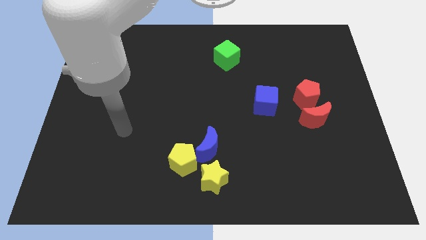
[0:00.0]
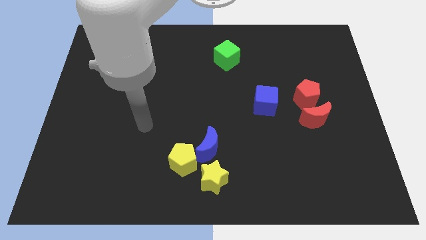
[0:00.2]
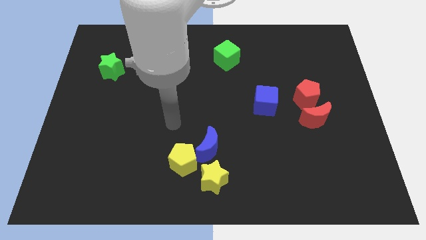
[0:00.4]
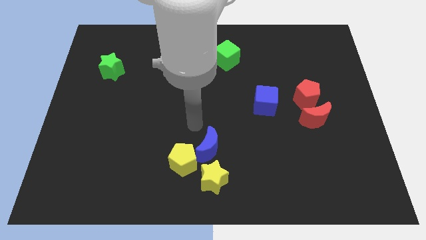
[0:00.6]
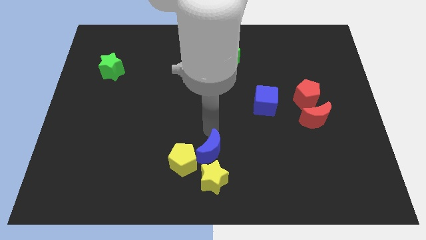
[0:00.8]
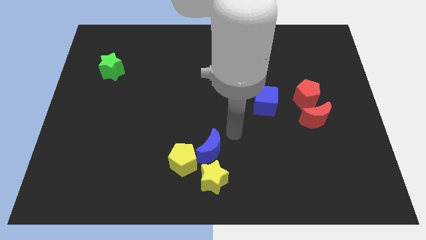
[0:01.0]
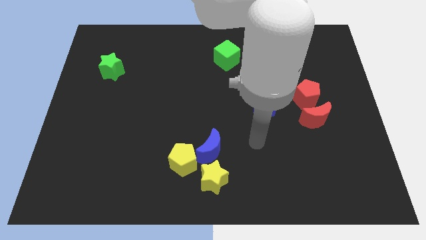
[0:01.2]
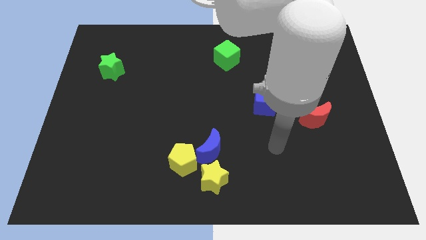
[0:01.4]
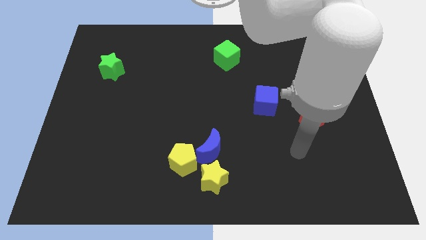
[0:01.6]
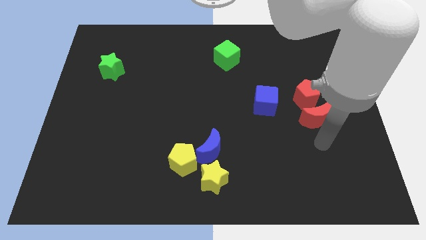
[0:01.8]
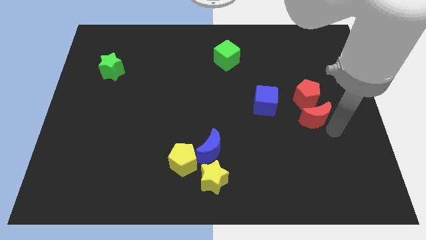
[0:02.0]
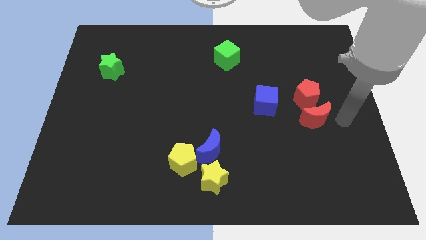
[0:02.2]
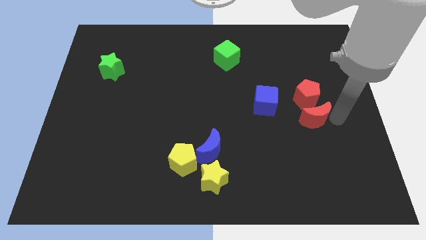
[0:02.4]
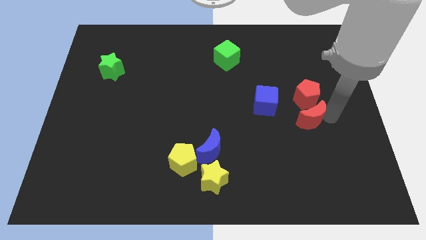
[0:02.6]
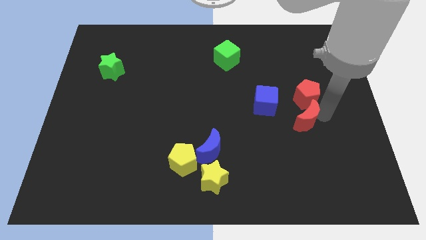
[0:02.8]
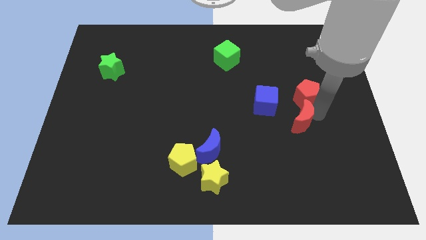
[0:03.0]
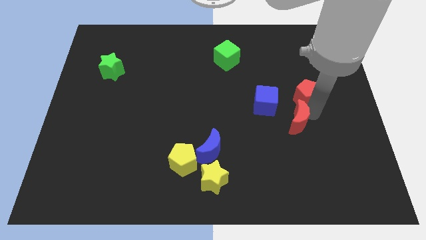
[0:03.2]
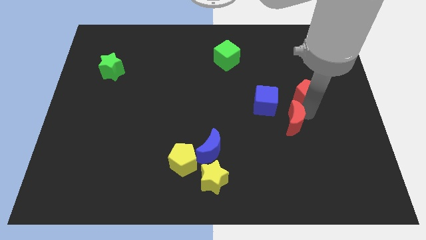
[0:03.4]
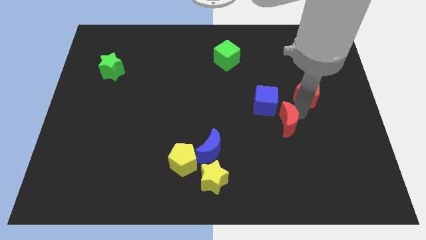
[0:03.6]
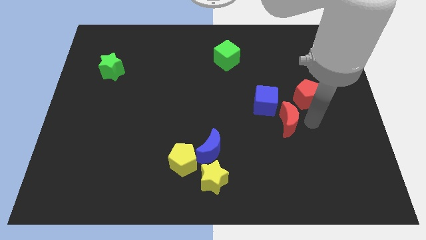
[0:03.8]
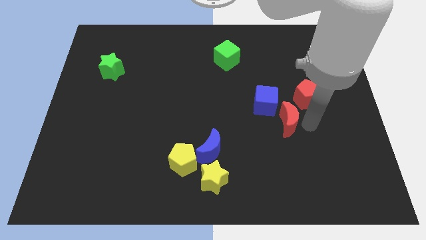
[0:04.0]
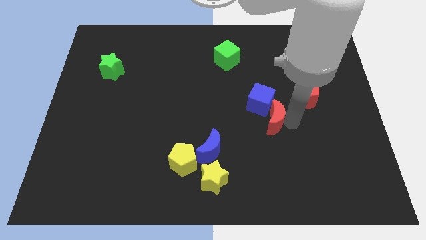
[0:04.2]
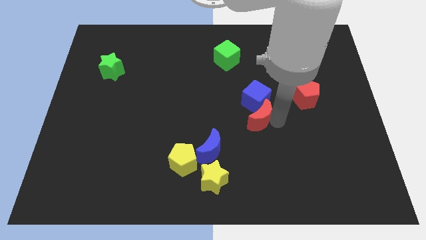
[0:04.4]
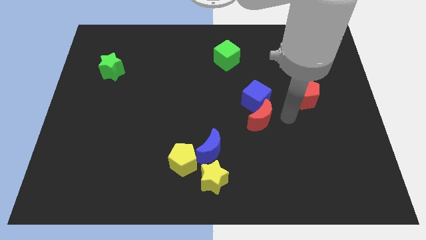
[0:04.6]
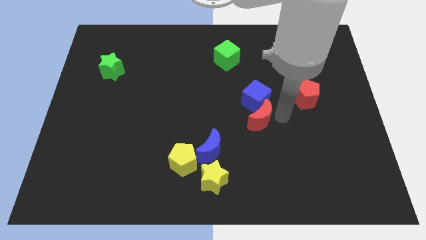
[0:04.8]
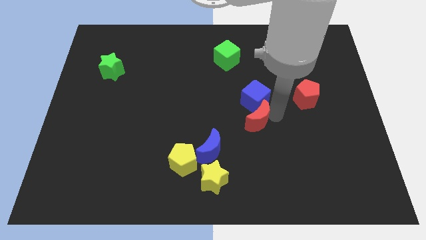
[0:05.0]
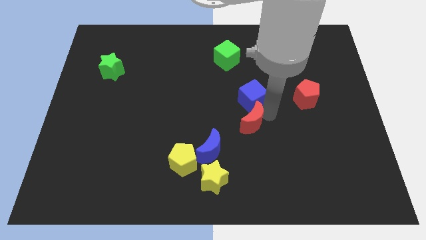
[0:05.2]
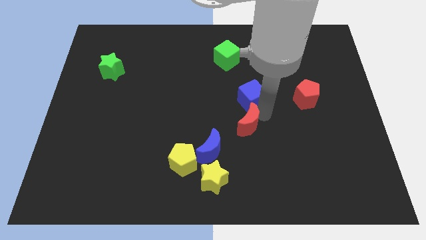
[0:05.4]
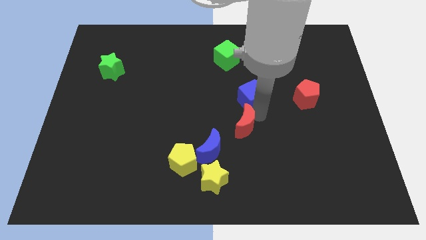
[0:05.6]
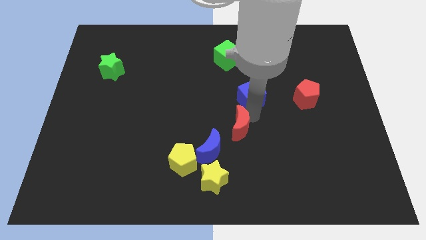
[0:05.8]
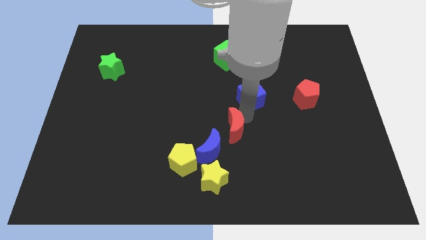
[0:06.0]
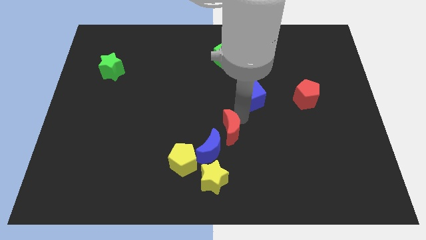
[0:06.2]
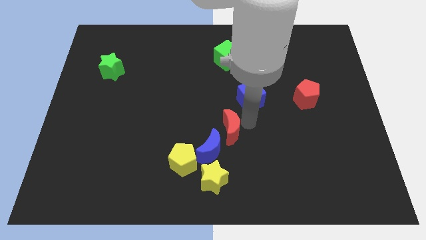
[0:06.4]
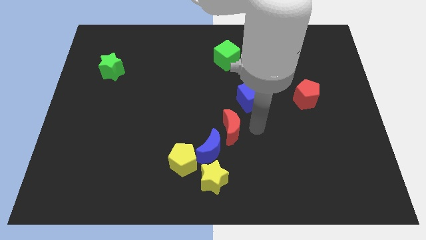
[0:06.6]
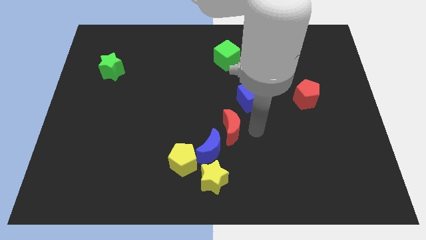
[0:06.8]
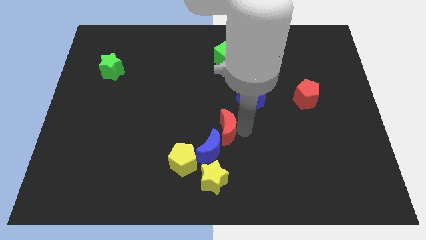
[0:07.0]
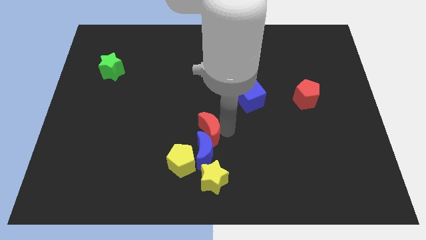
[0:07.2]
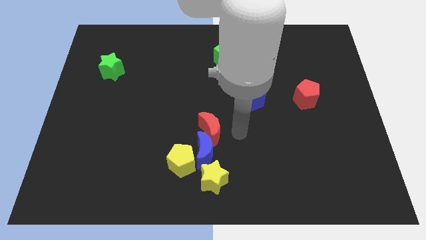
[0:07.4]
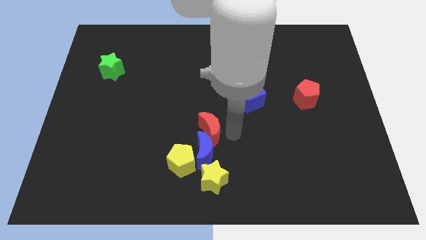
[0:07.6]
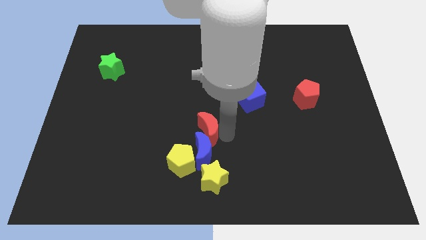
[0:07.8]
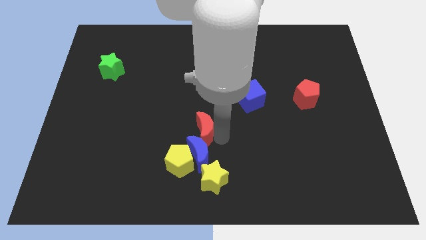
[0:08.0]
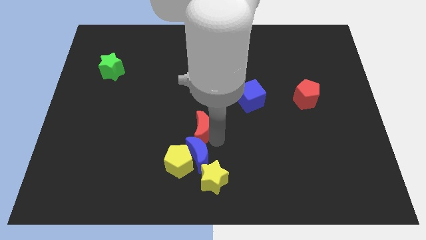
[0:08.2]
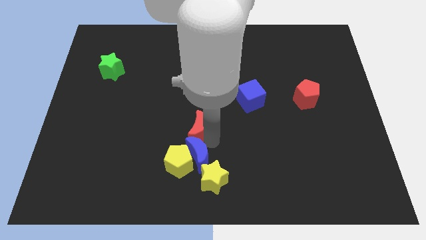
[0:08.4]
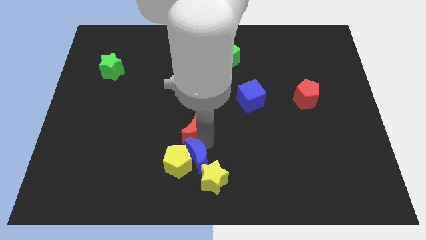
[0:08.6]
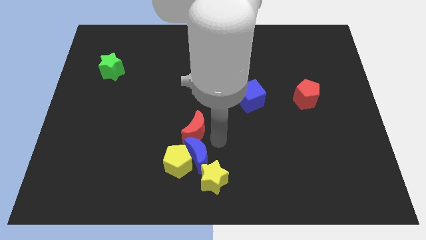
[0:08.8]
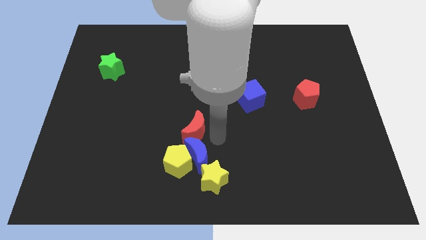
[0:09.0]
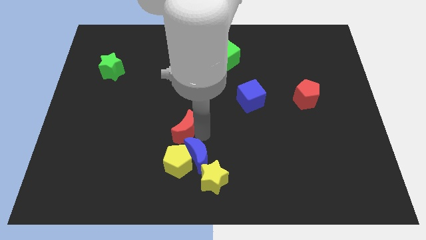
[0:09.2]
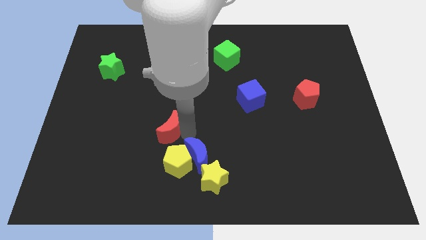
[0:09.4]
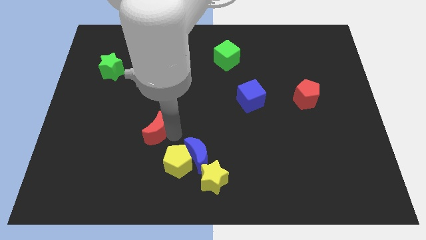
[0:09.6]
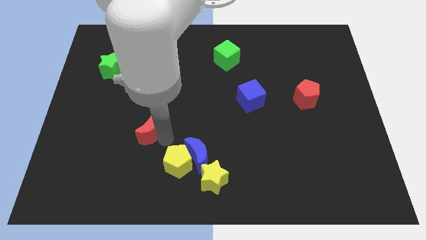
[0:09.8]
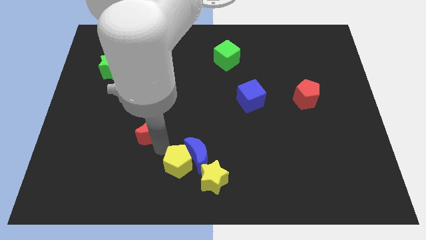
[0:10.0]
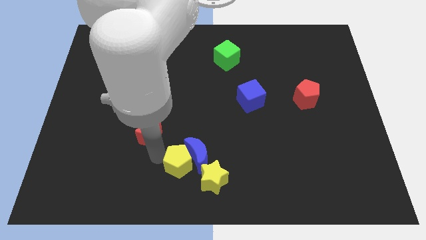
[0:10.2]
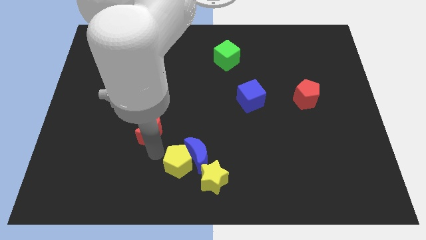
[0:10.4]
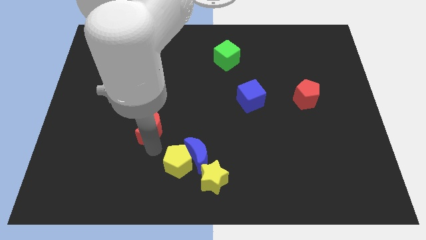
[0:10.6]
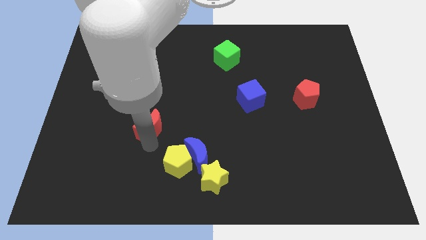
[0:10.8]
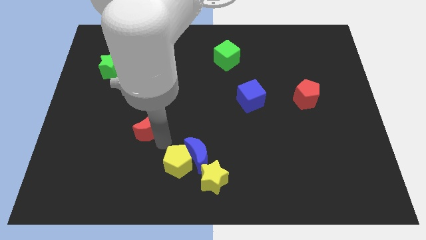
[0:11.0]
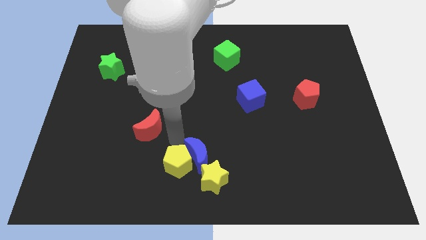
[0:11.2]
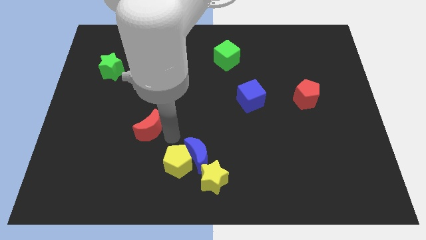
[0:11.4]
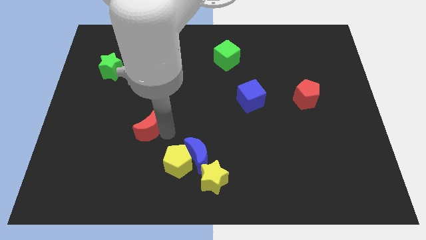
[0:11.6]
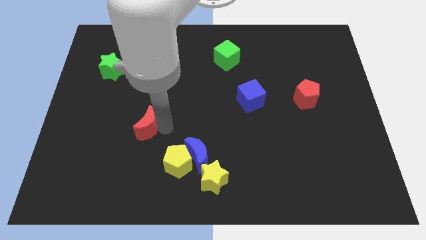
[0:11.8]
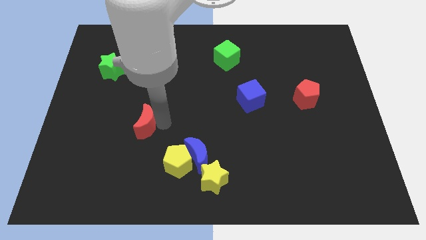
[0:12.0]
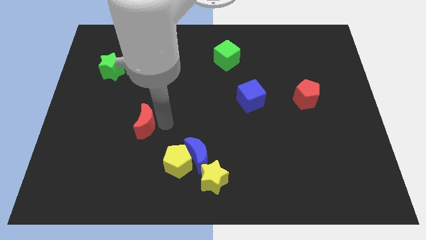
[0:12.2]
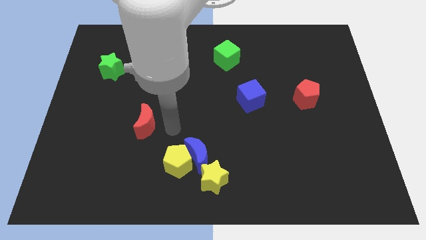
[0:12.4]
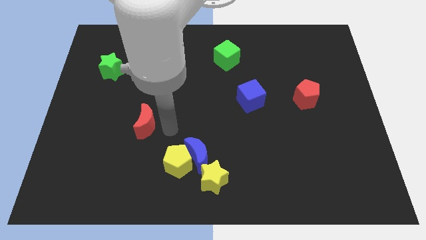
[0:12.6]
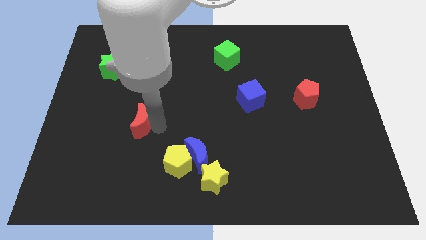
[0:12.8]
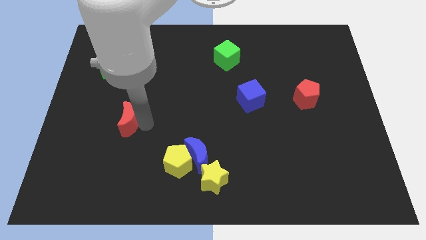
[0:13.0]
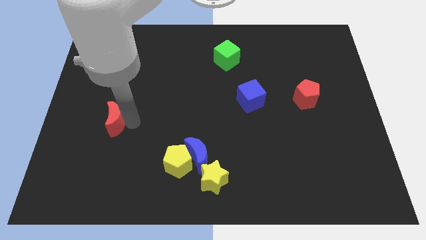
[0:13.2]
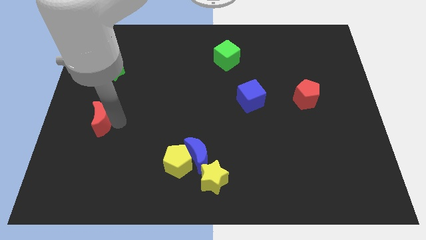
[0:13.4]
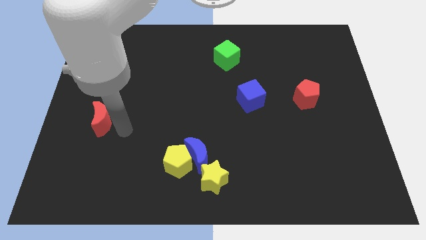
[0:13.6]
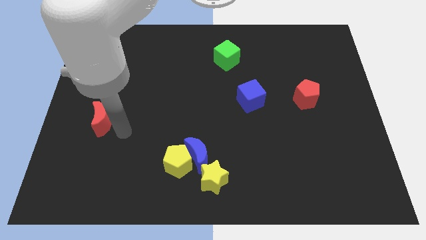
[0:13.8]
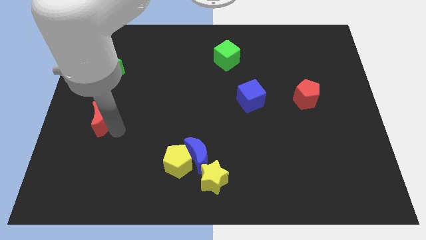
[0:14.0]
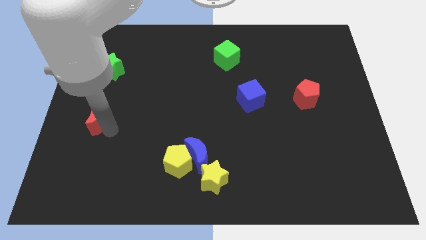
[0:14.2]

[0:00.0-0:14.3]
move the red moon to the left side of the board
